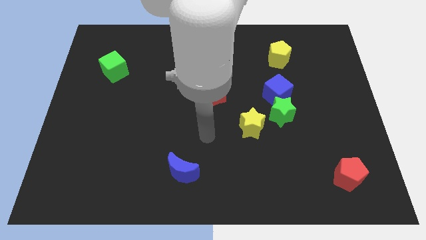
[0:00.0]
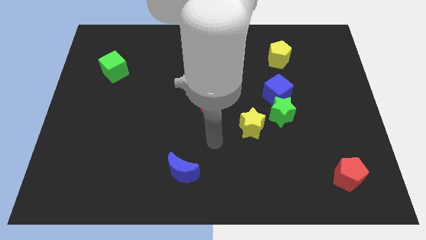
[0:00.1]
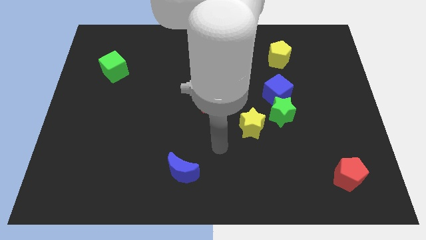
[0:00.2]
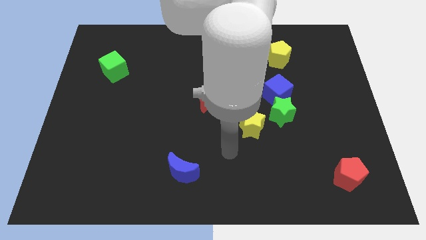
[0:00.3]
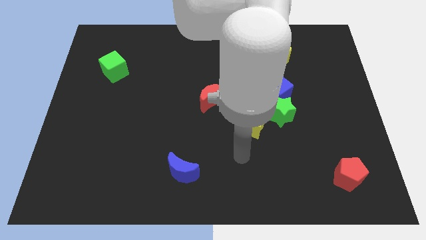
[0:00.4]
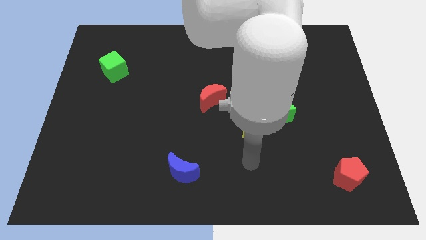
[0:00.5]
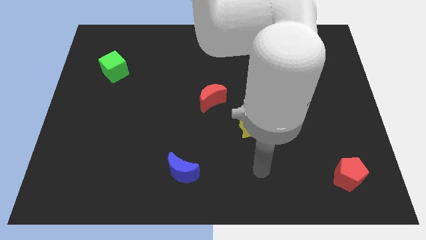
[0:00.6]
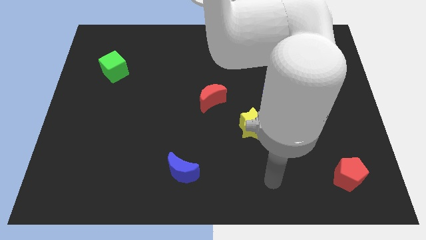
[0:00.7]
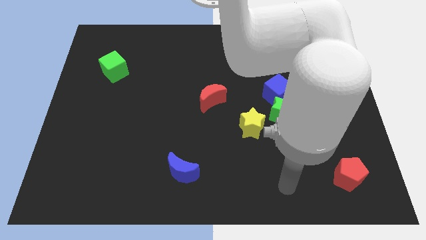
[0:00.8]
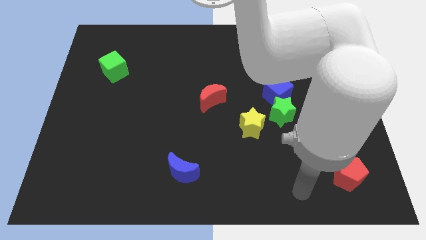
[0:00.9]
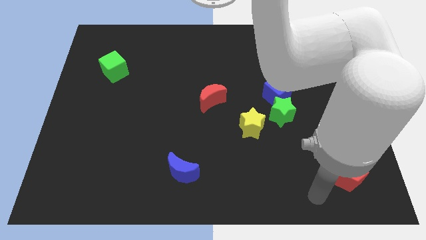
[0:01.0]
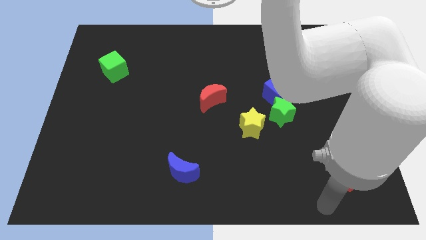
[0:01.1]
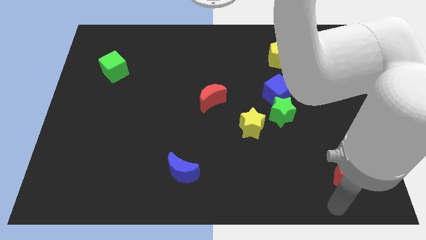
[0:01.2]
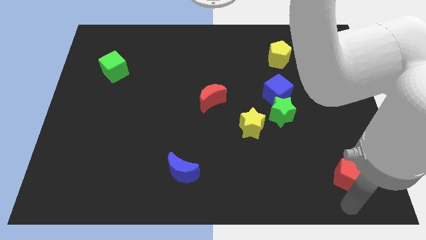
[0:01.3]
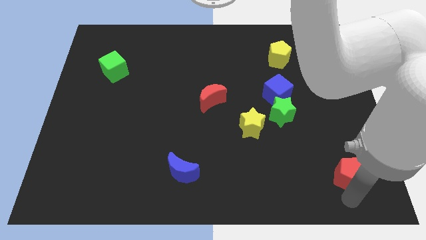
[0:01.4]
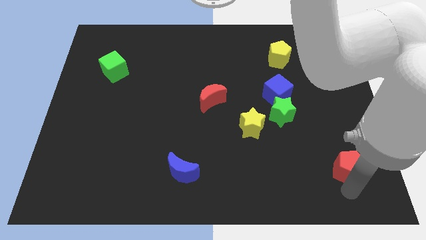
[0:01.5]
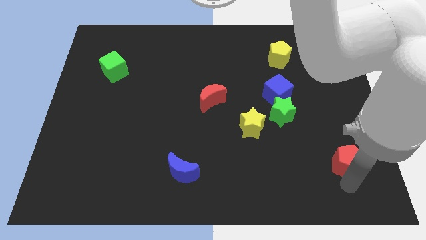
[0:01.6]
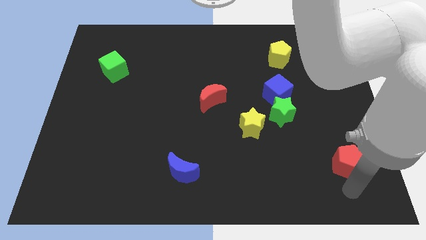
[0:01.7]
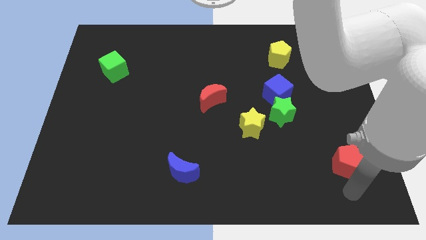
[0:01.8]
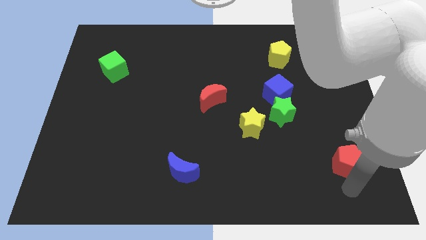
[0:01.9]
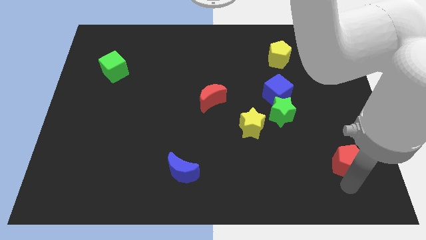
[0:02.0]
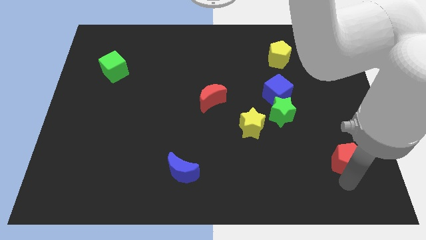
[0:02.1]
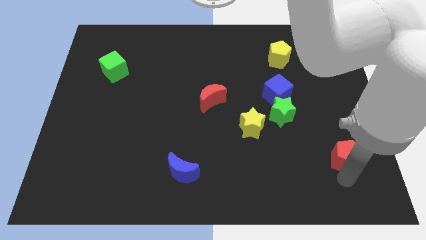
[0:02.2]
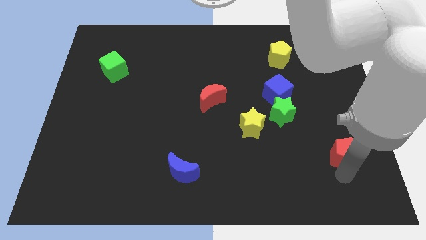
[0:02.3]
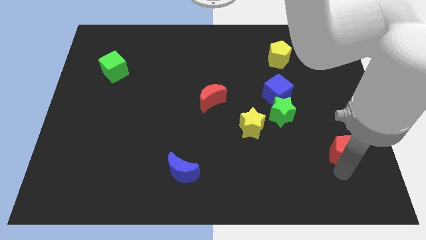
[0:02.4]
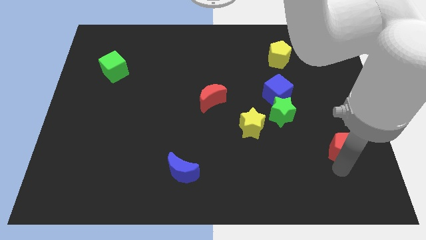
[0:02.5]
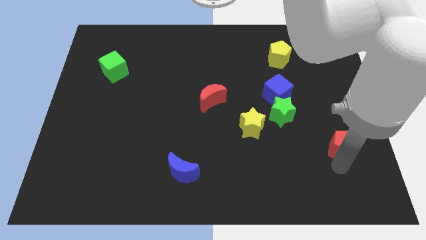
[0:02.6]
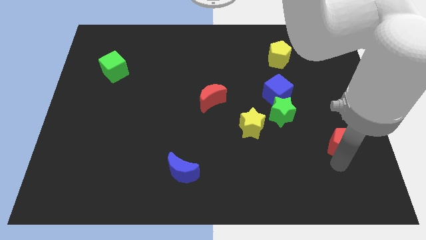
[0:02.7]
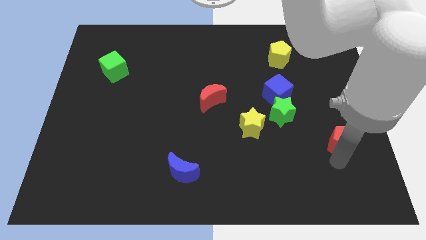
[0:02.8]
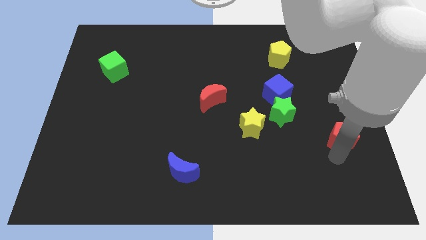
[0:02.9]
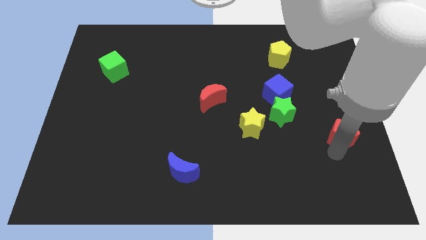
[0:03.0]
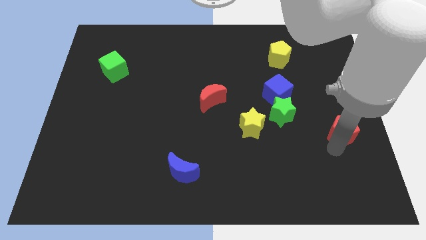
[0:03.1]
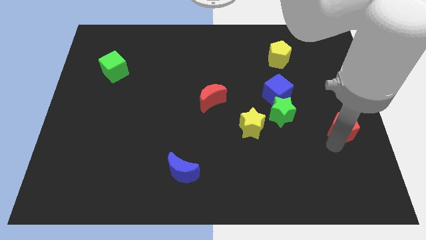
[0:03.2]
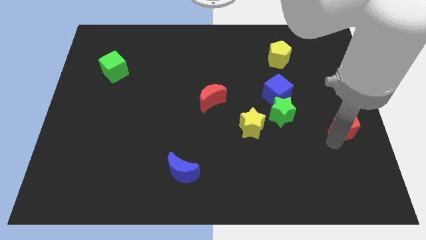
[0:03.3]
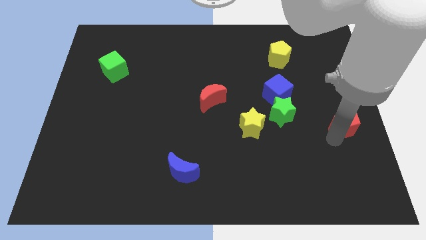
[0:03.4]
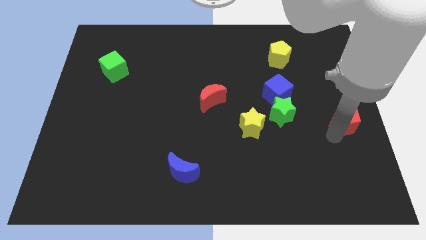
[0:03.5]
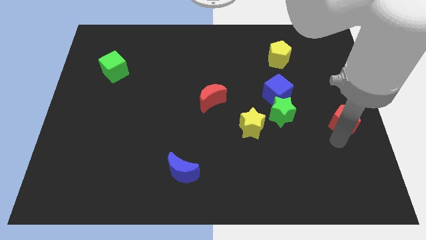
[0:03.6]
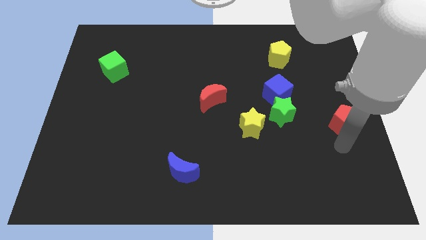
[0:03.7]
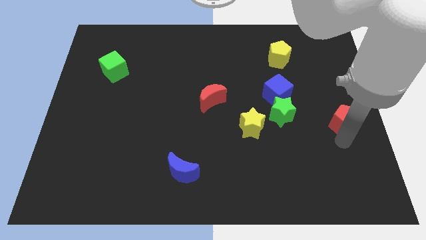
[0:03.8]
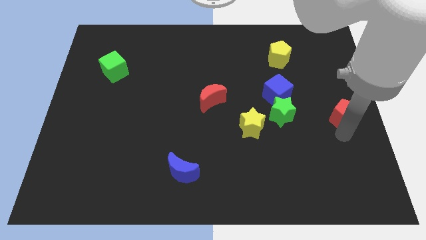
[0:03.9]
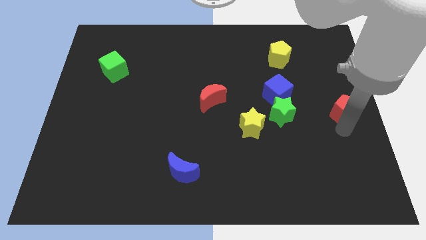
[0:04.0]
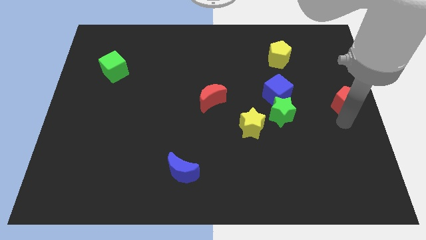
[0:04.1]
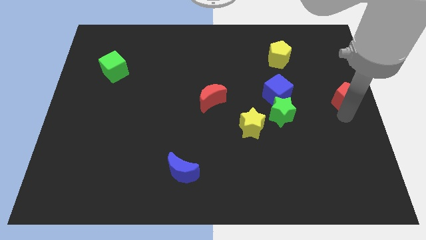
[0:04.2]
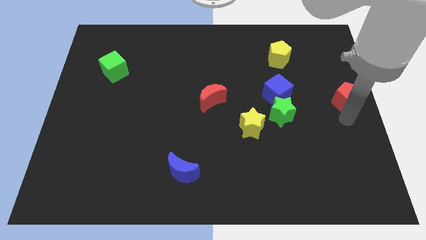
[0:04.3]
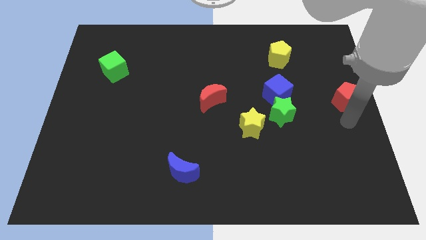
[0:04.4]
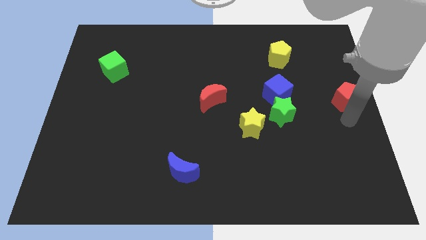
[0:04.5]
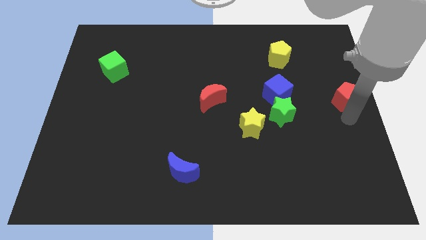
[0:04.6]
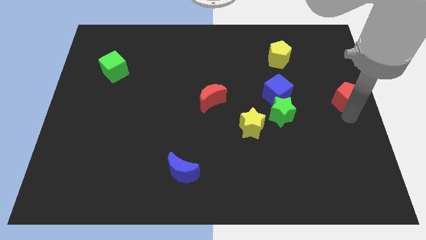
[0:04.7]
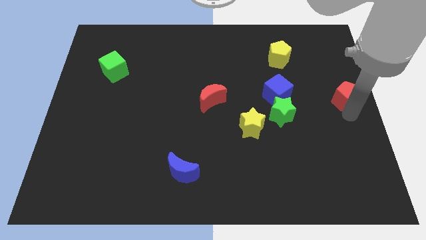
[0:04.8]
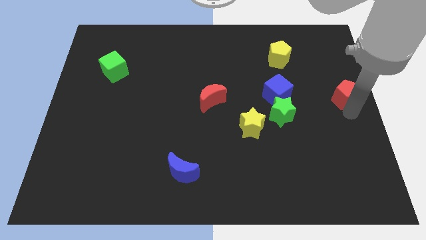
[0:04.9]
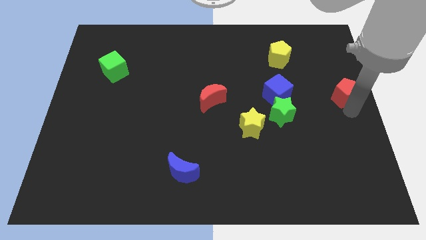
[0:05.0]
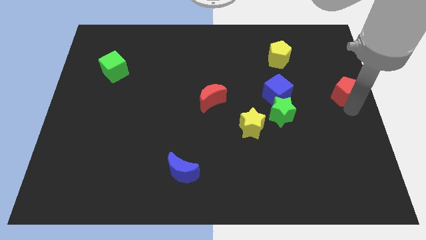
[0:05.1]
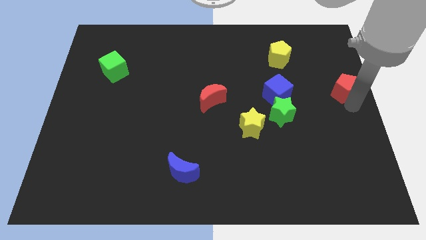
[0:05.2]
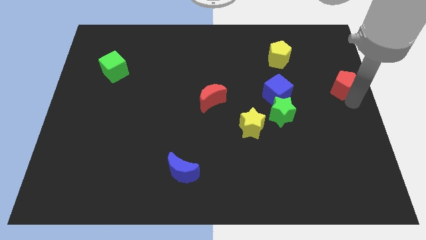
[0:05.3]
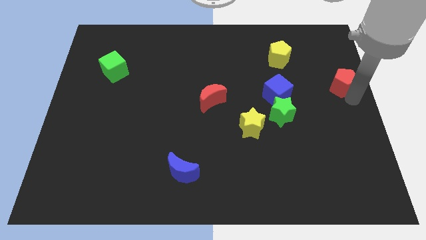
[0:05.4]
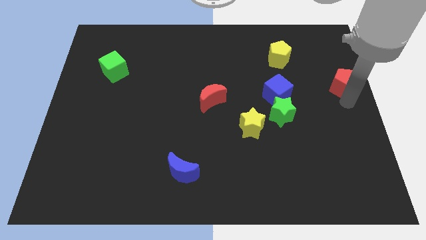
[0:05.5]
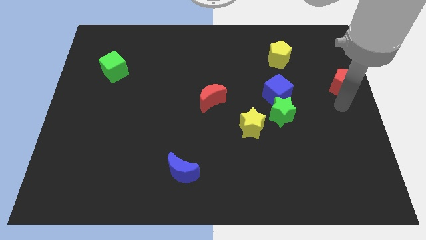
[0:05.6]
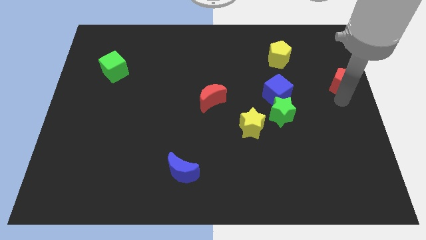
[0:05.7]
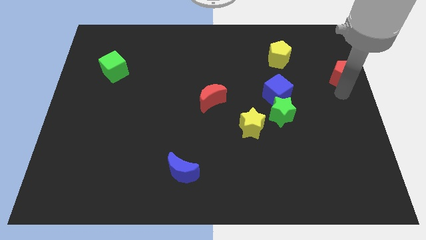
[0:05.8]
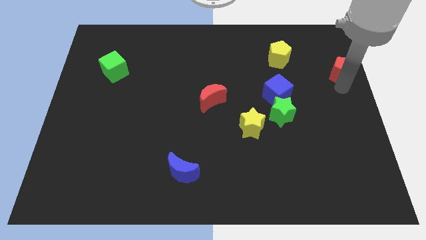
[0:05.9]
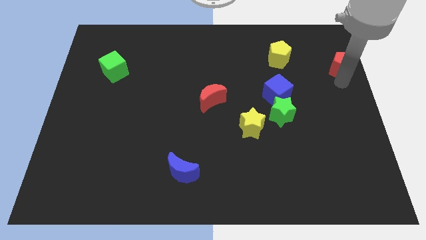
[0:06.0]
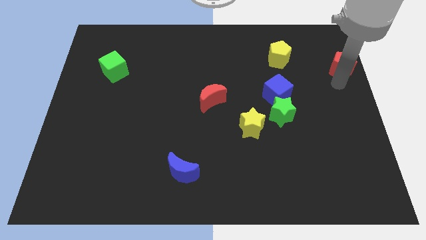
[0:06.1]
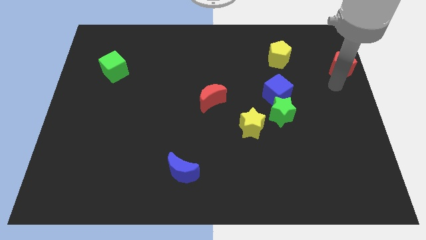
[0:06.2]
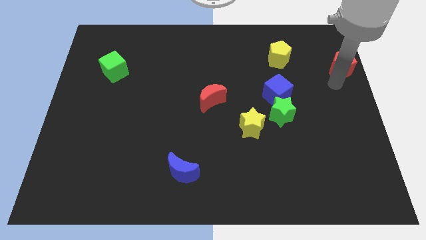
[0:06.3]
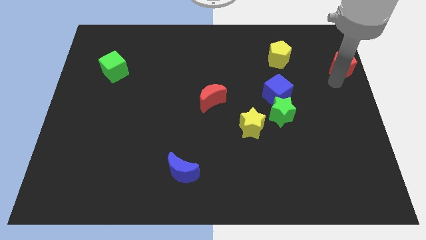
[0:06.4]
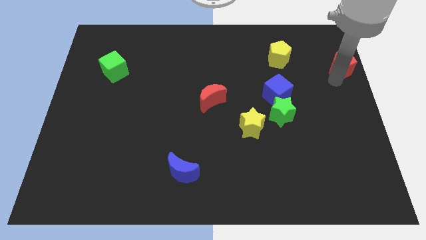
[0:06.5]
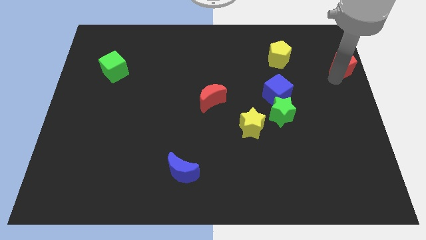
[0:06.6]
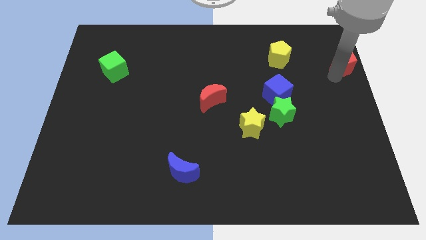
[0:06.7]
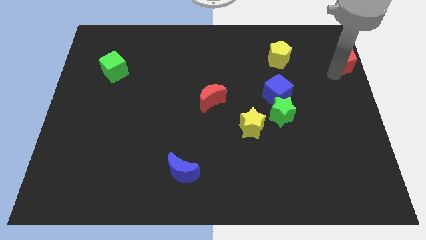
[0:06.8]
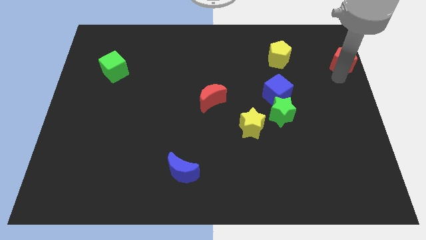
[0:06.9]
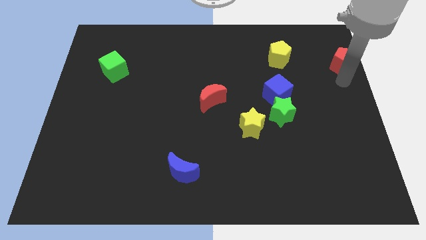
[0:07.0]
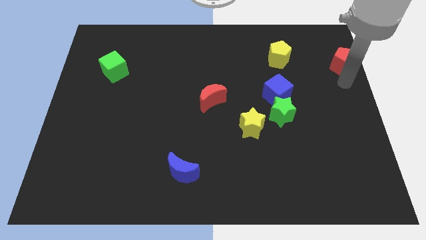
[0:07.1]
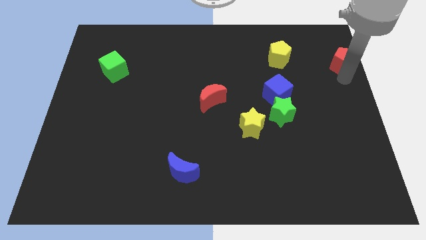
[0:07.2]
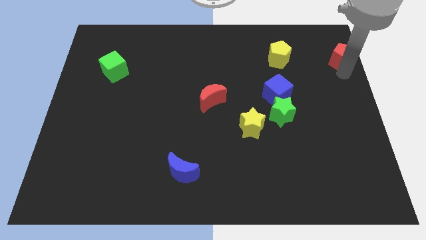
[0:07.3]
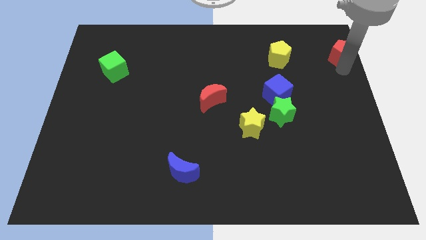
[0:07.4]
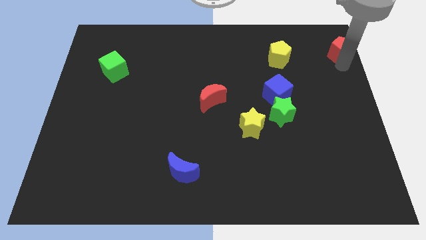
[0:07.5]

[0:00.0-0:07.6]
slide the red pentagon to the upper right corner
